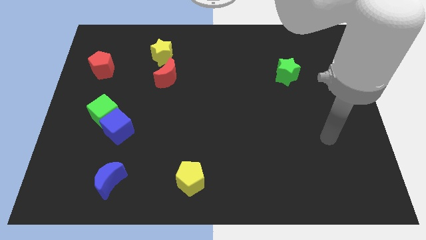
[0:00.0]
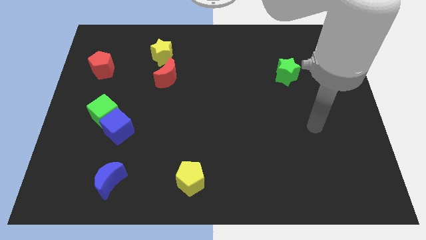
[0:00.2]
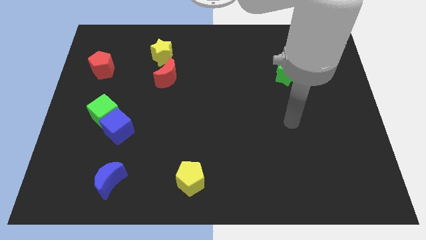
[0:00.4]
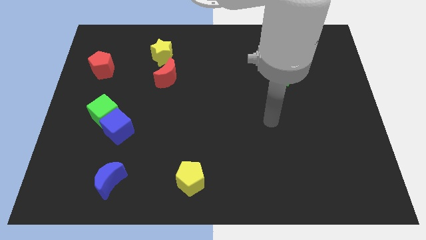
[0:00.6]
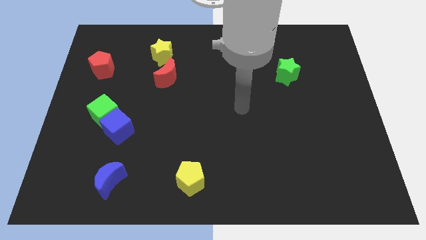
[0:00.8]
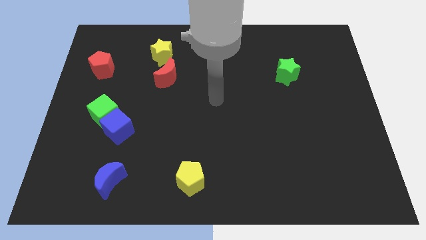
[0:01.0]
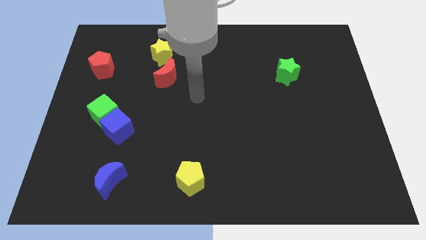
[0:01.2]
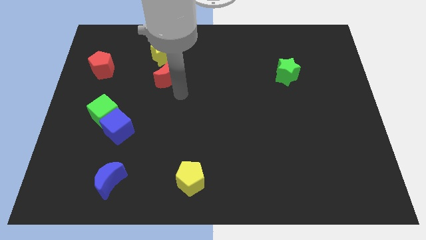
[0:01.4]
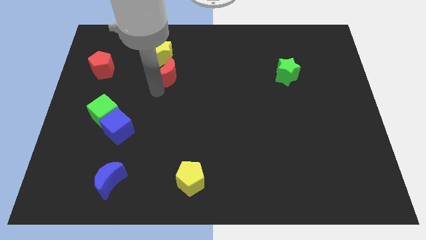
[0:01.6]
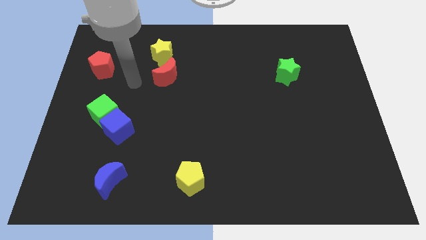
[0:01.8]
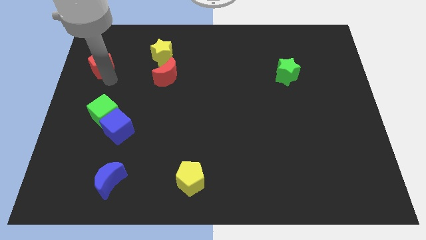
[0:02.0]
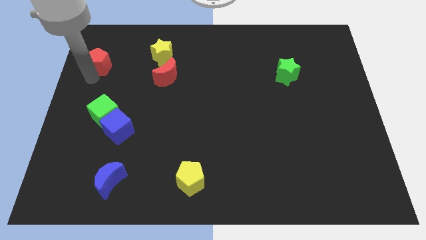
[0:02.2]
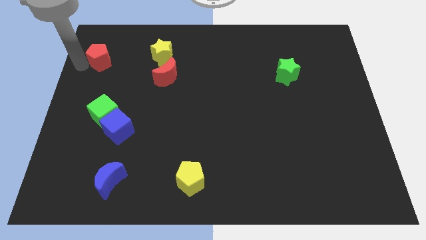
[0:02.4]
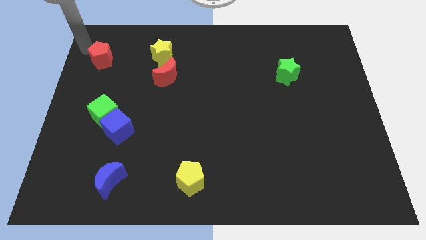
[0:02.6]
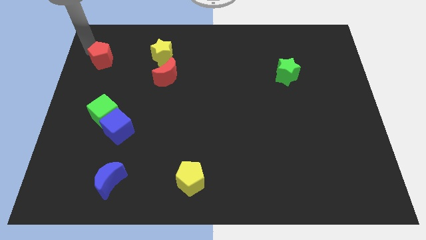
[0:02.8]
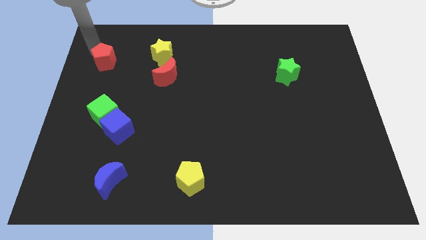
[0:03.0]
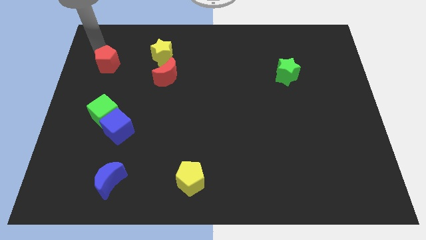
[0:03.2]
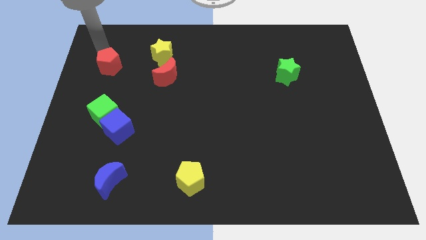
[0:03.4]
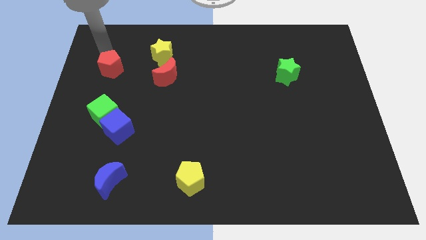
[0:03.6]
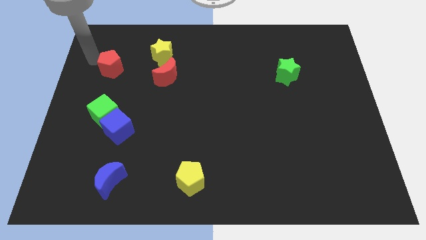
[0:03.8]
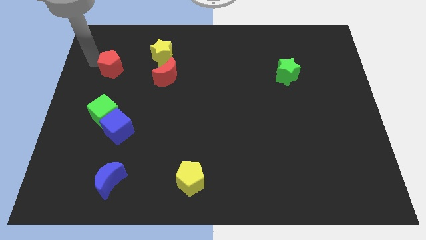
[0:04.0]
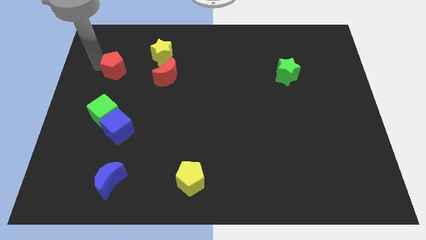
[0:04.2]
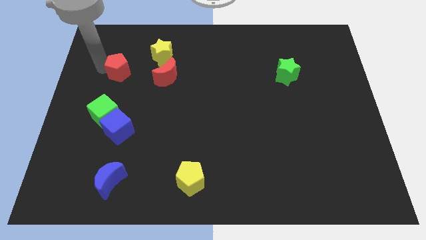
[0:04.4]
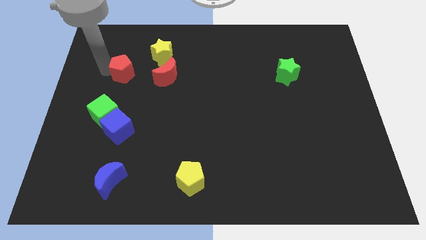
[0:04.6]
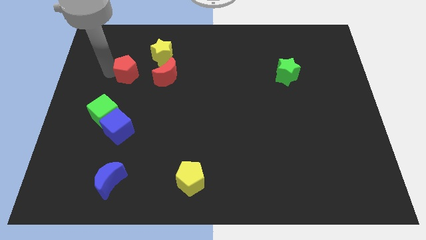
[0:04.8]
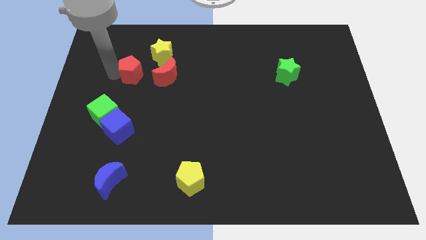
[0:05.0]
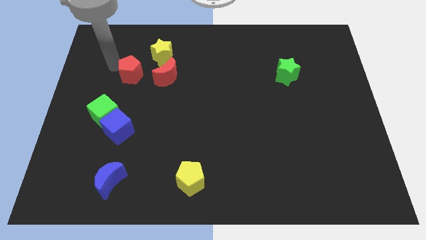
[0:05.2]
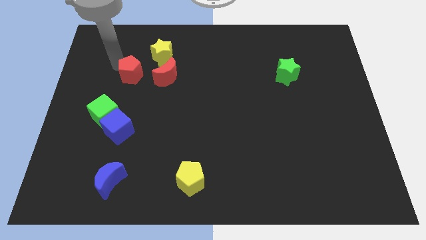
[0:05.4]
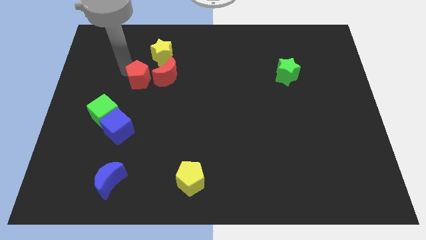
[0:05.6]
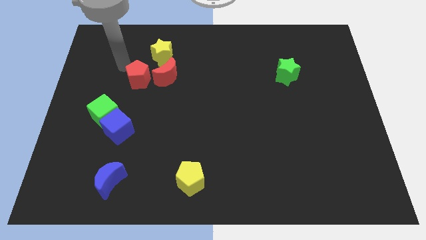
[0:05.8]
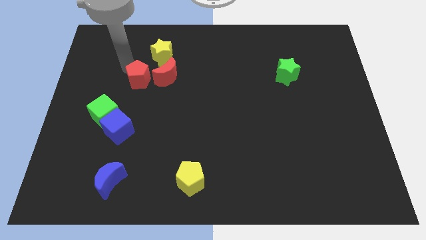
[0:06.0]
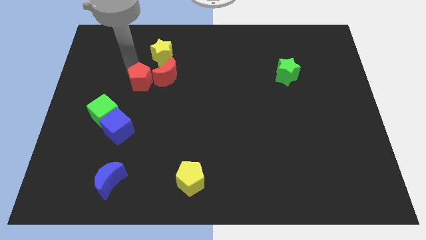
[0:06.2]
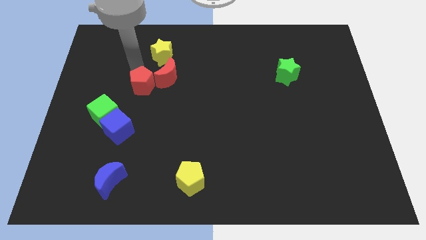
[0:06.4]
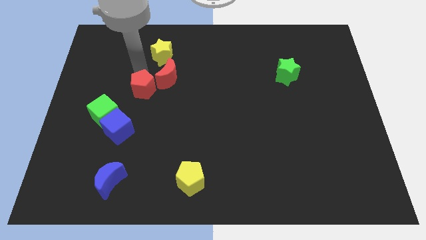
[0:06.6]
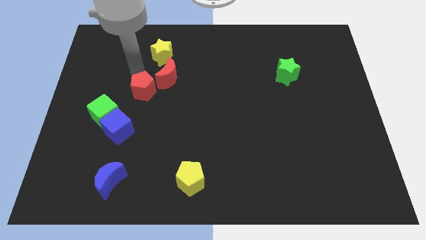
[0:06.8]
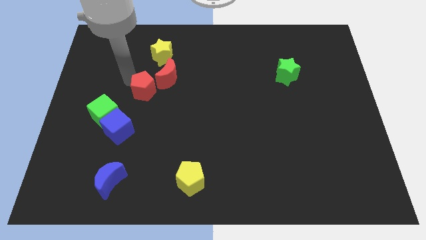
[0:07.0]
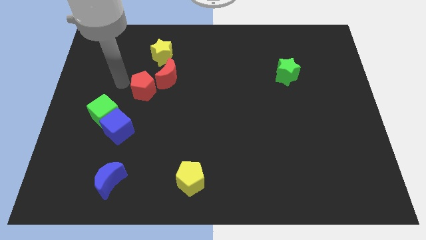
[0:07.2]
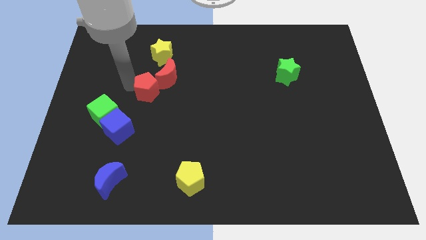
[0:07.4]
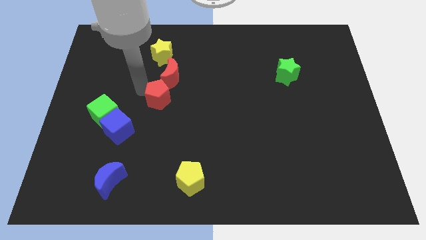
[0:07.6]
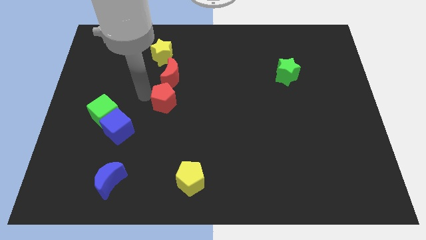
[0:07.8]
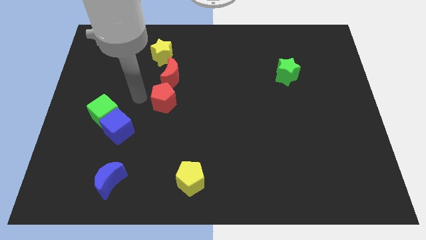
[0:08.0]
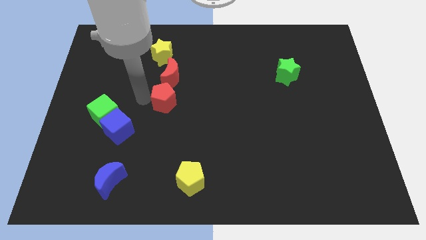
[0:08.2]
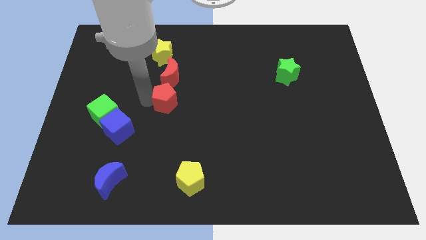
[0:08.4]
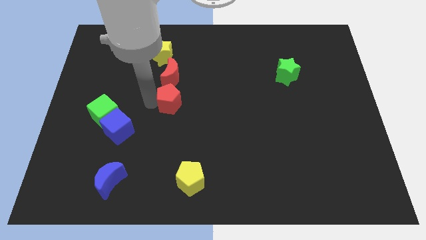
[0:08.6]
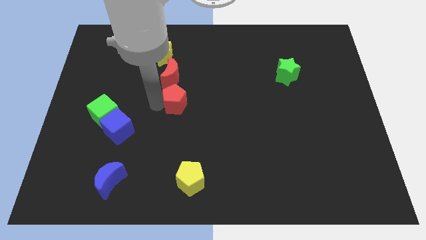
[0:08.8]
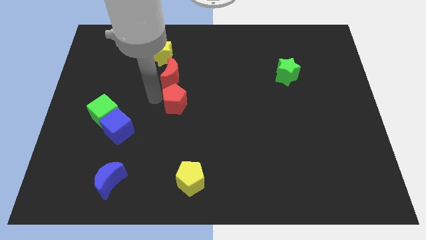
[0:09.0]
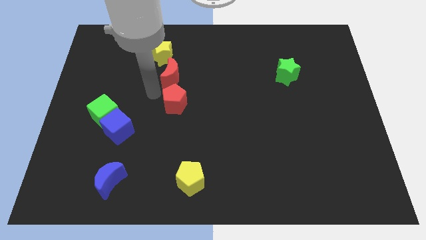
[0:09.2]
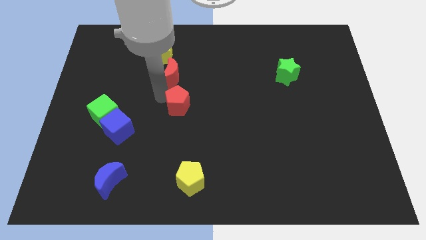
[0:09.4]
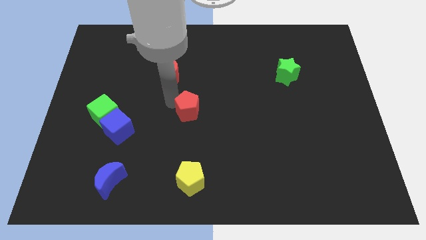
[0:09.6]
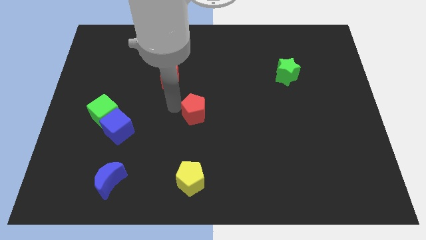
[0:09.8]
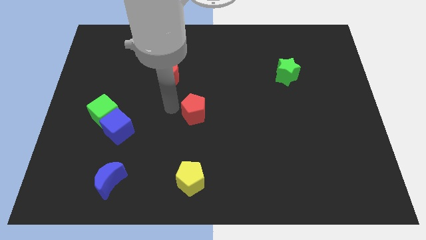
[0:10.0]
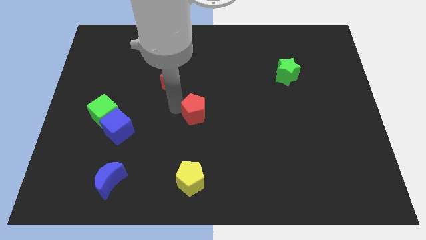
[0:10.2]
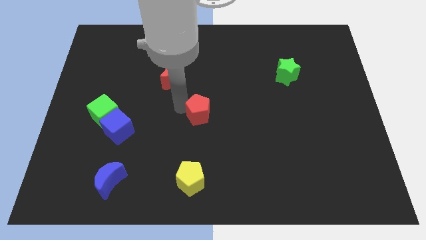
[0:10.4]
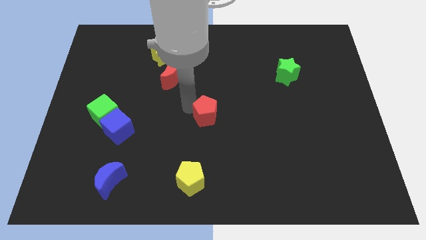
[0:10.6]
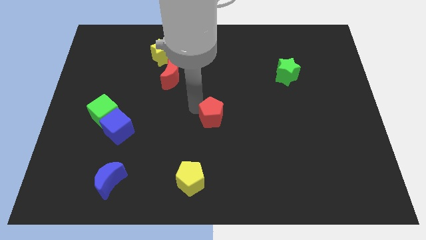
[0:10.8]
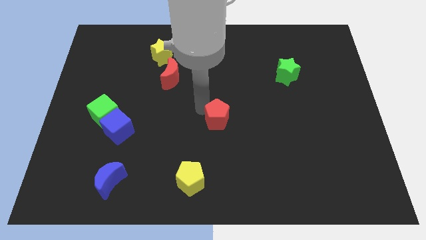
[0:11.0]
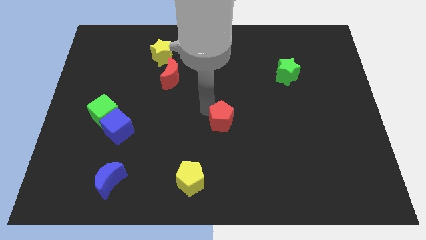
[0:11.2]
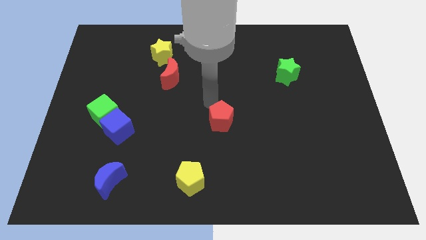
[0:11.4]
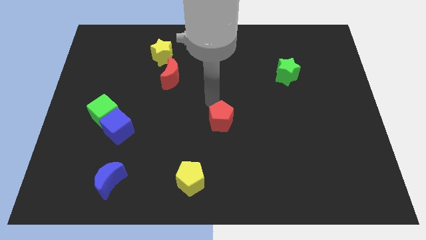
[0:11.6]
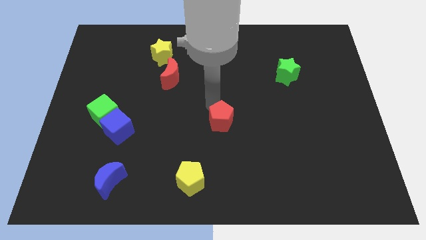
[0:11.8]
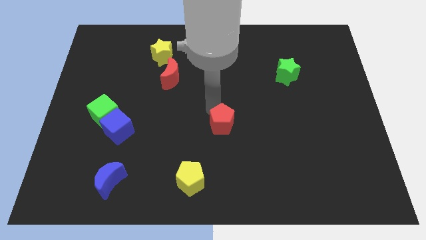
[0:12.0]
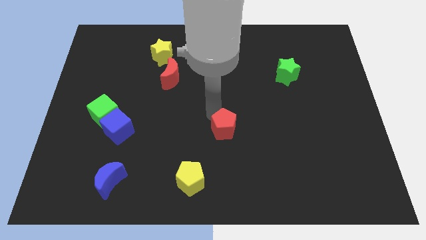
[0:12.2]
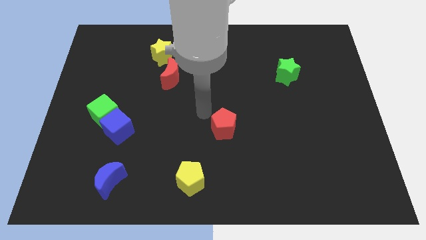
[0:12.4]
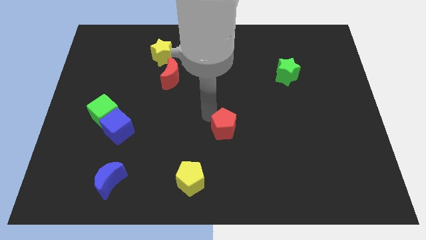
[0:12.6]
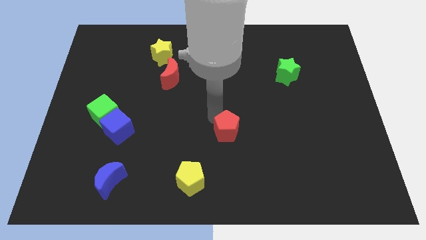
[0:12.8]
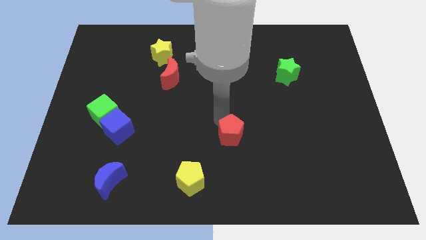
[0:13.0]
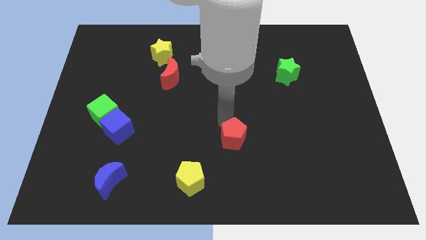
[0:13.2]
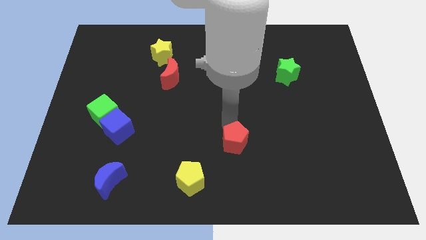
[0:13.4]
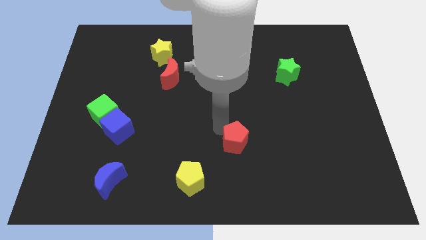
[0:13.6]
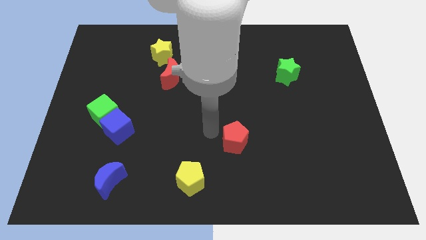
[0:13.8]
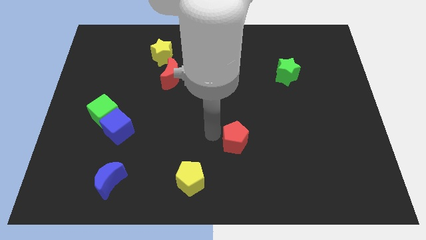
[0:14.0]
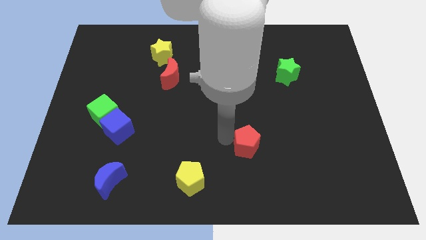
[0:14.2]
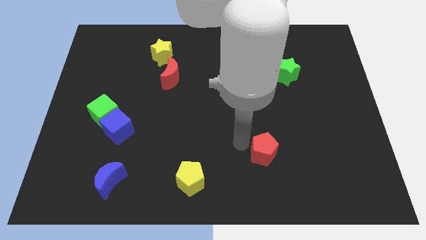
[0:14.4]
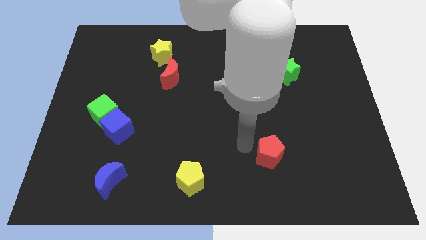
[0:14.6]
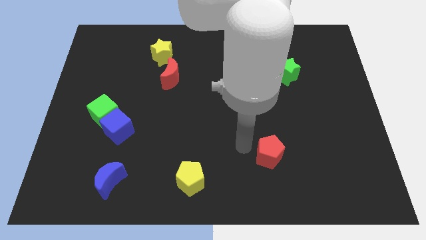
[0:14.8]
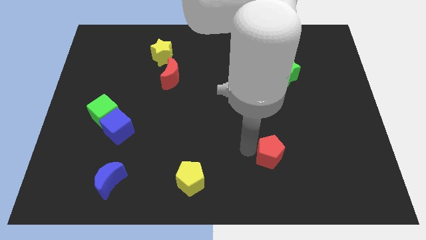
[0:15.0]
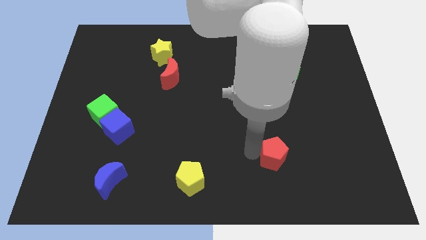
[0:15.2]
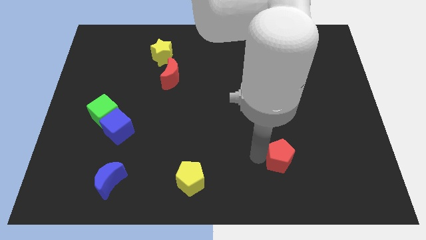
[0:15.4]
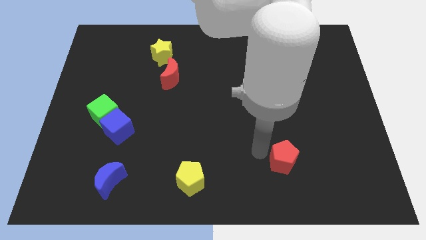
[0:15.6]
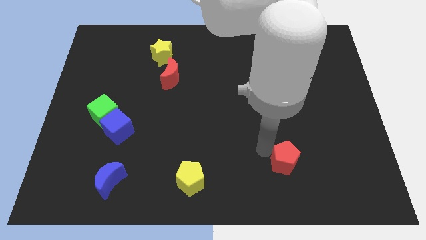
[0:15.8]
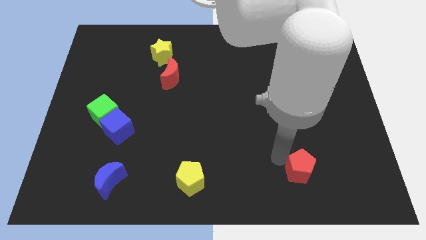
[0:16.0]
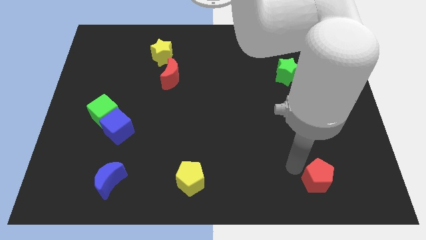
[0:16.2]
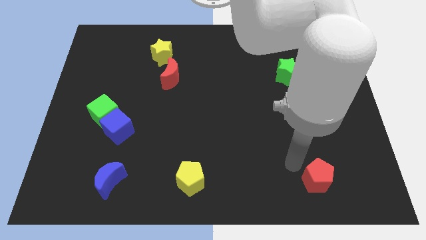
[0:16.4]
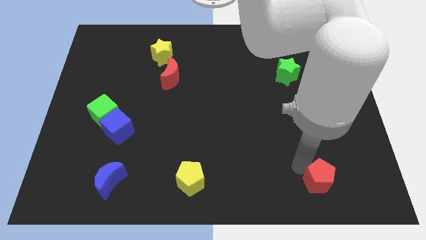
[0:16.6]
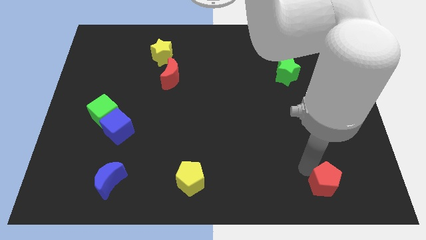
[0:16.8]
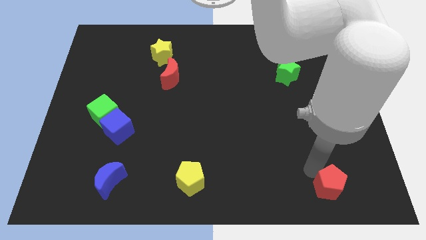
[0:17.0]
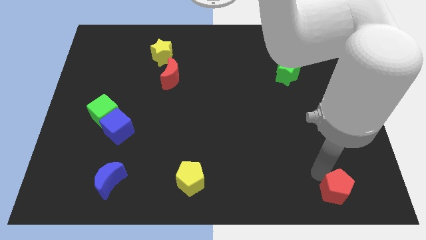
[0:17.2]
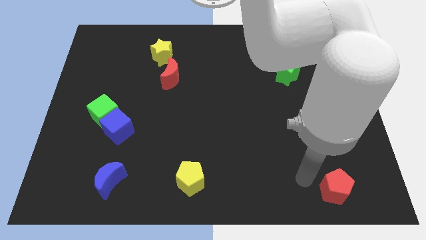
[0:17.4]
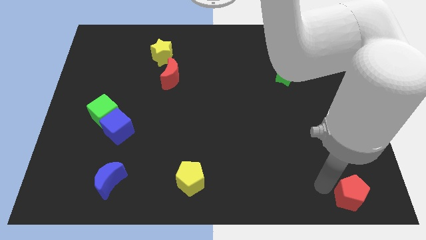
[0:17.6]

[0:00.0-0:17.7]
move the red pentagon to the bottom right corner
